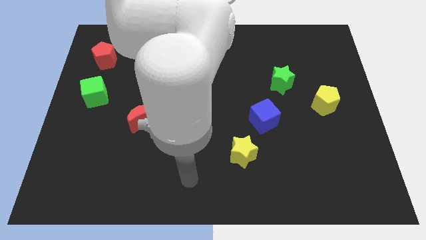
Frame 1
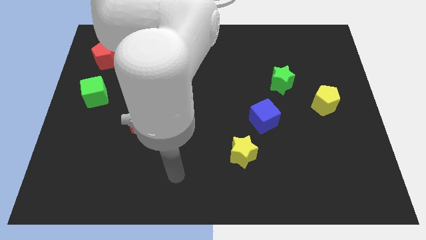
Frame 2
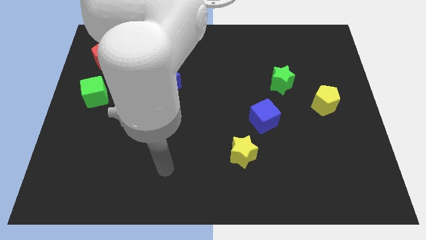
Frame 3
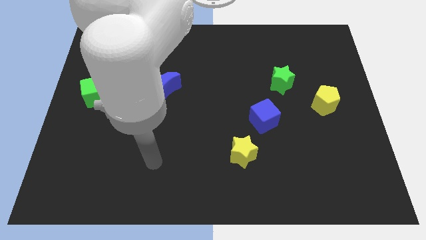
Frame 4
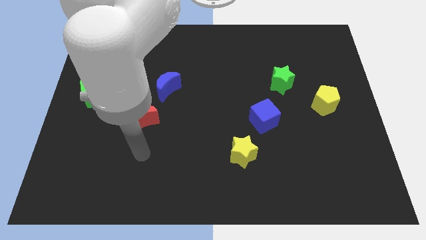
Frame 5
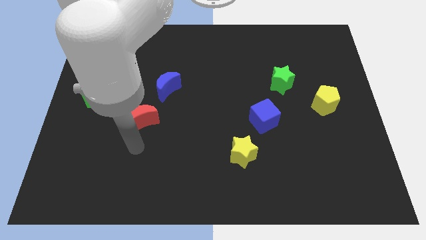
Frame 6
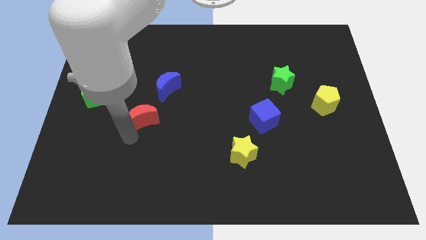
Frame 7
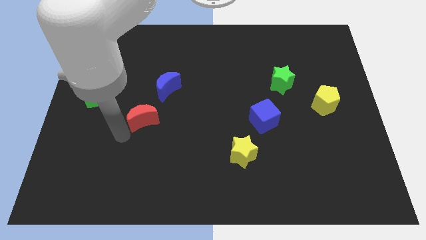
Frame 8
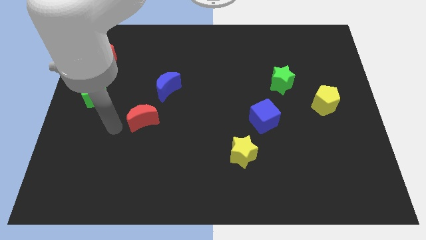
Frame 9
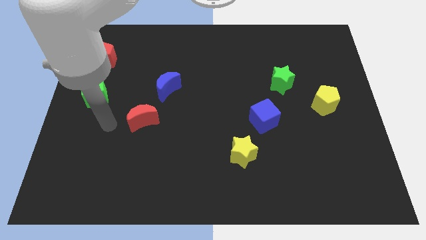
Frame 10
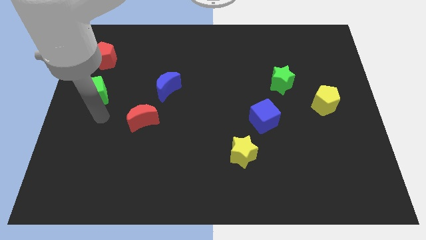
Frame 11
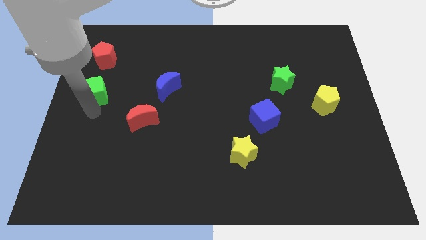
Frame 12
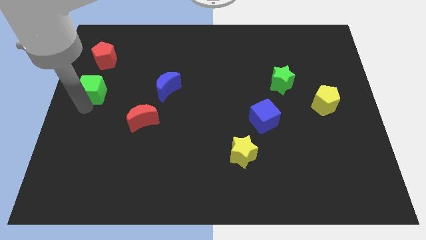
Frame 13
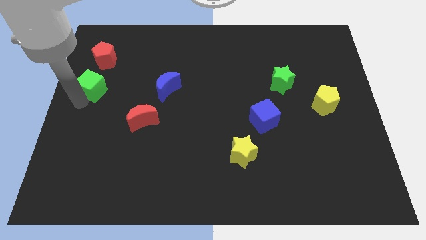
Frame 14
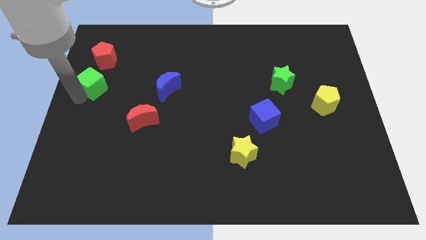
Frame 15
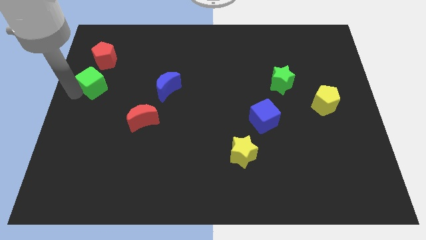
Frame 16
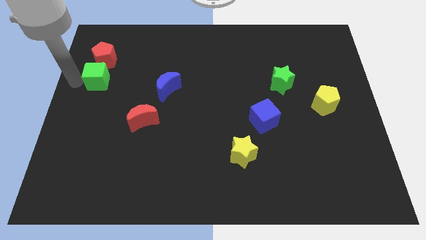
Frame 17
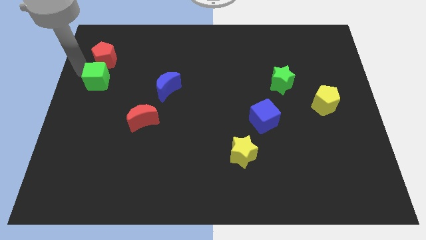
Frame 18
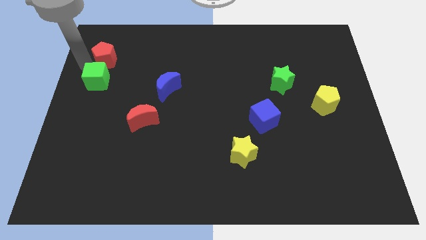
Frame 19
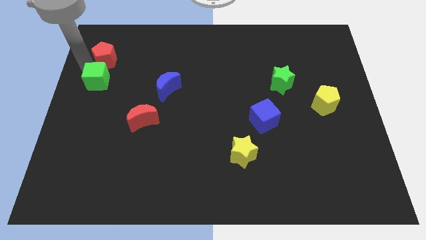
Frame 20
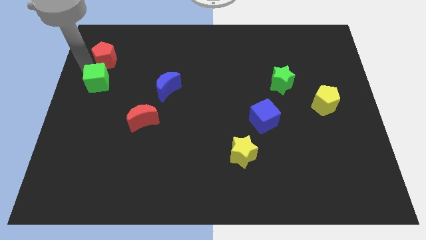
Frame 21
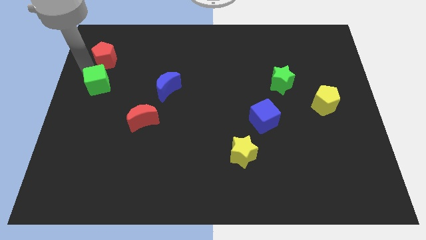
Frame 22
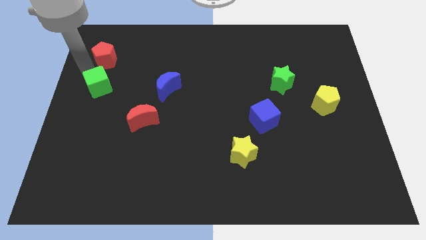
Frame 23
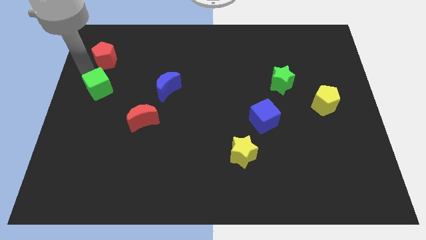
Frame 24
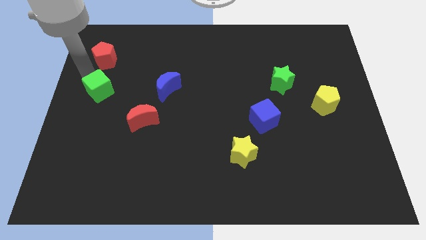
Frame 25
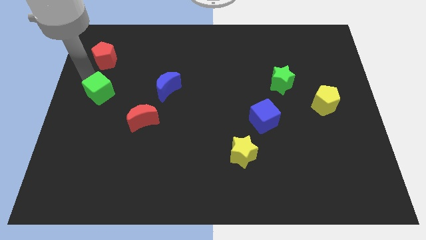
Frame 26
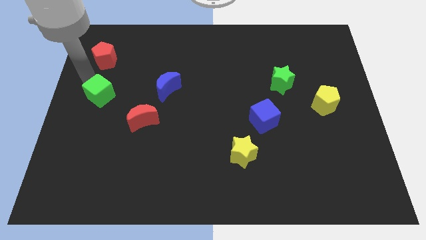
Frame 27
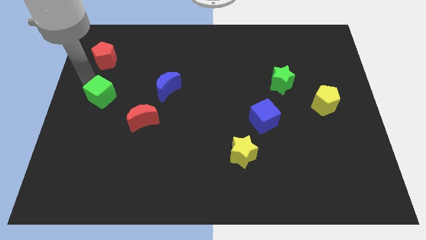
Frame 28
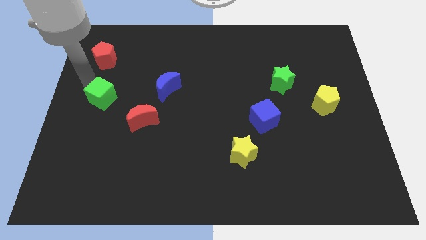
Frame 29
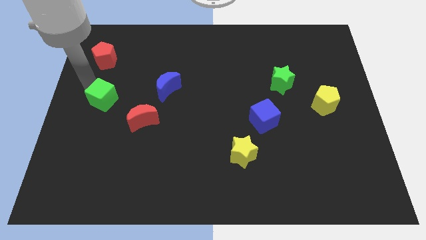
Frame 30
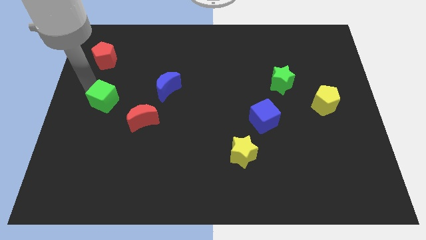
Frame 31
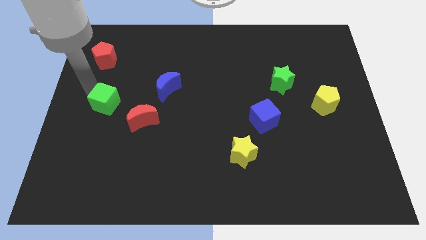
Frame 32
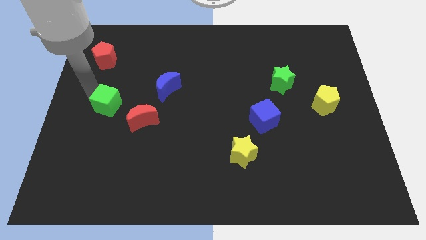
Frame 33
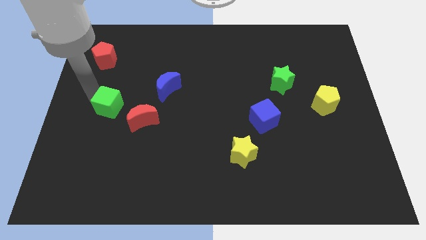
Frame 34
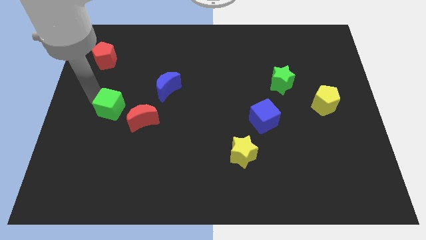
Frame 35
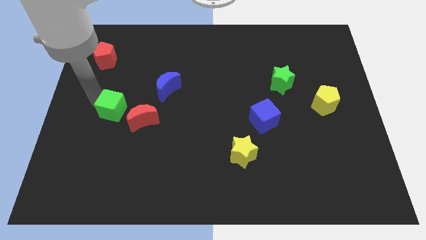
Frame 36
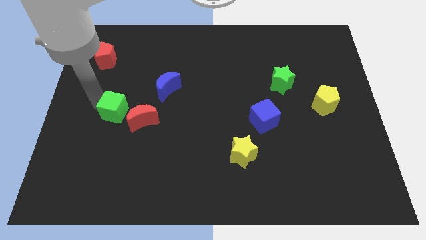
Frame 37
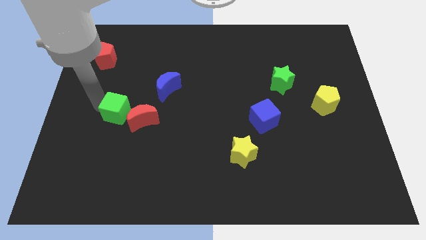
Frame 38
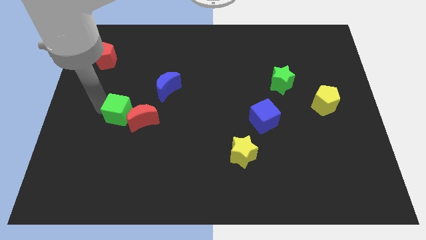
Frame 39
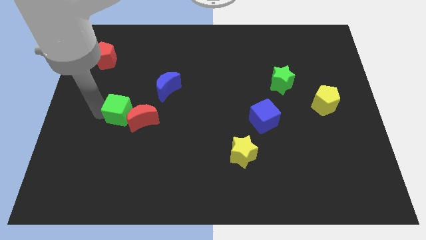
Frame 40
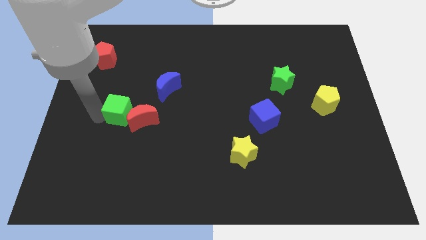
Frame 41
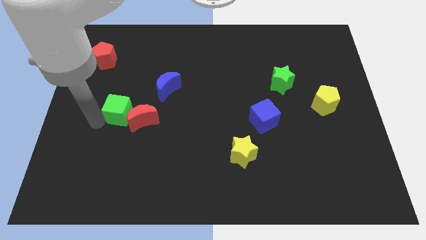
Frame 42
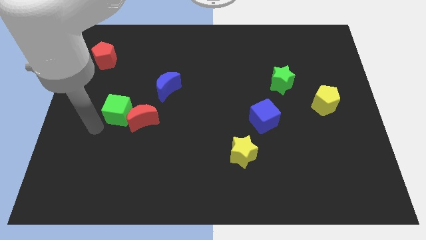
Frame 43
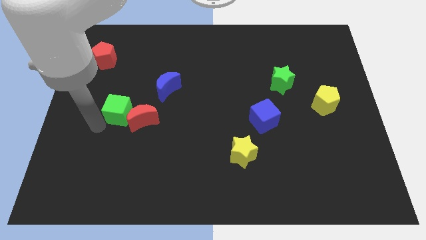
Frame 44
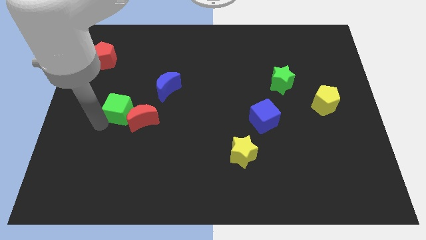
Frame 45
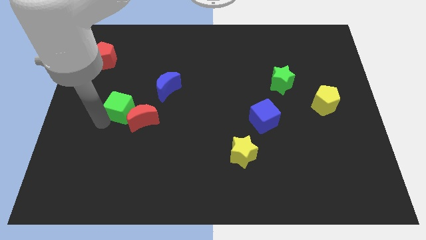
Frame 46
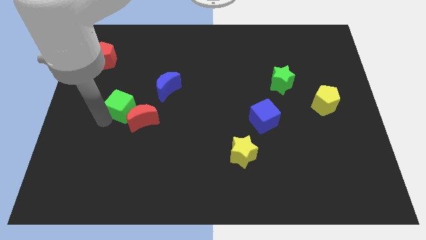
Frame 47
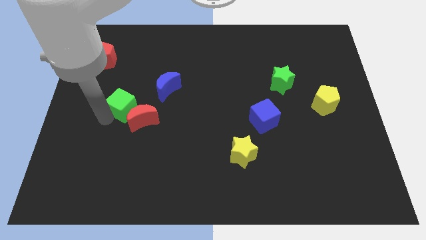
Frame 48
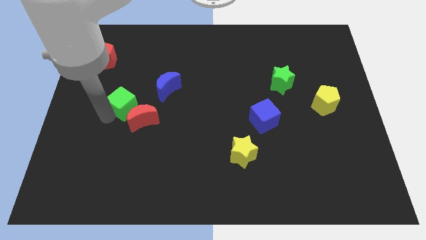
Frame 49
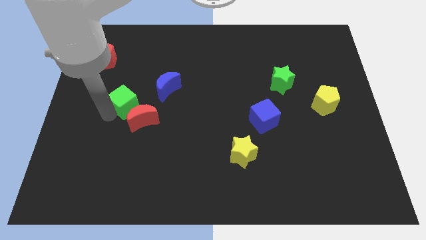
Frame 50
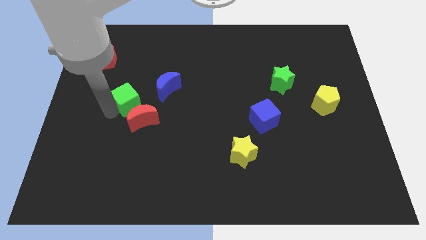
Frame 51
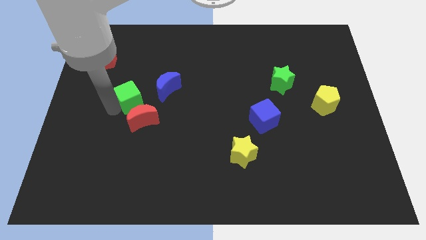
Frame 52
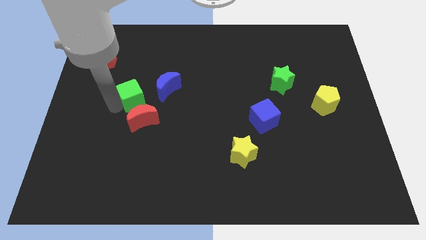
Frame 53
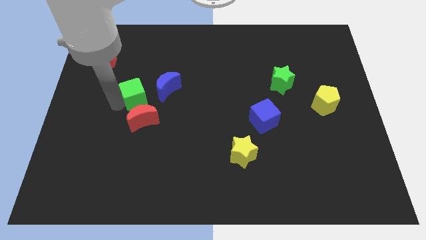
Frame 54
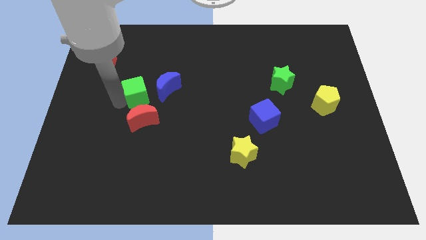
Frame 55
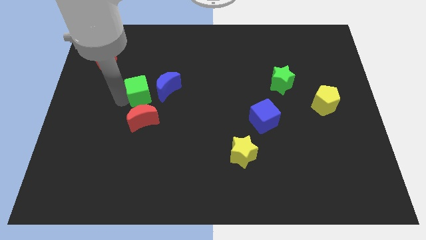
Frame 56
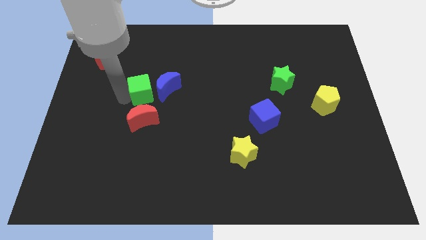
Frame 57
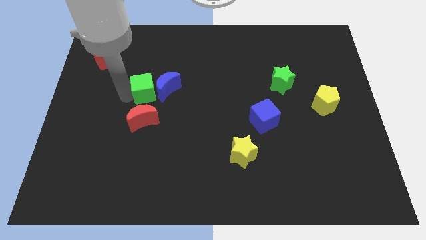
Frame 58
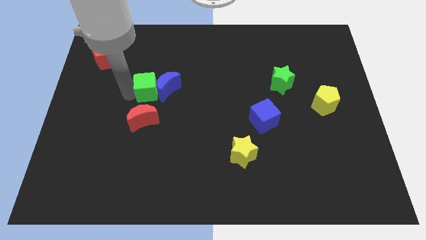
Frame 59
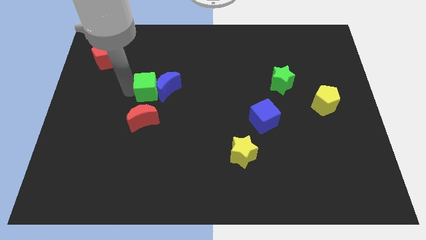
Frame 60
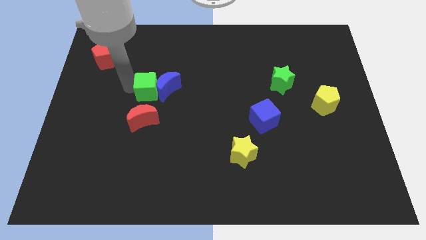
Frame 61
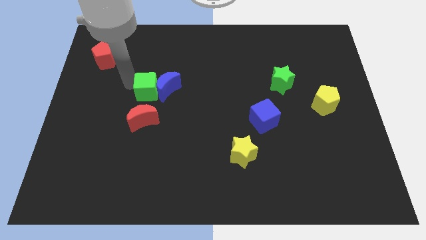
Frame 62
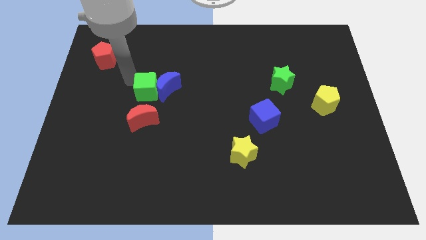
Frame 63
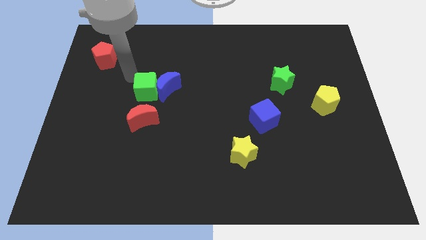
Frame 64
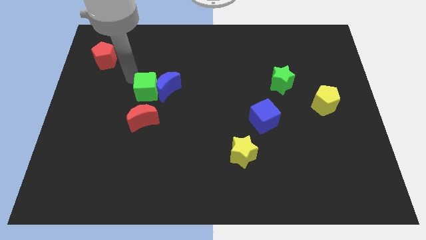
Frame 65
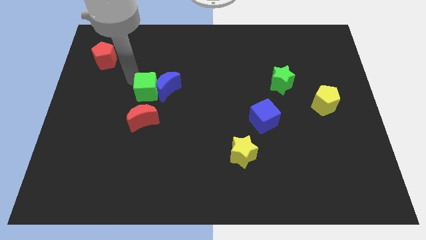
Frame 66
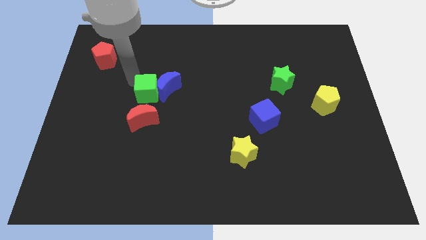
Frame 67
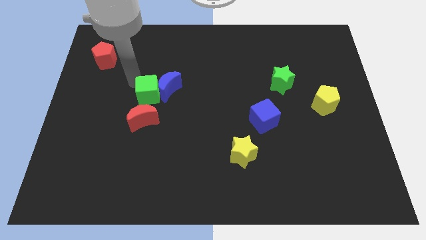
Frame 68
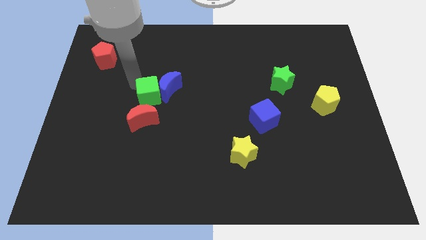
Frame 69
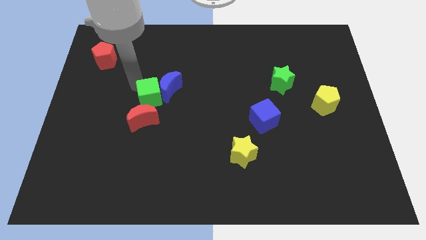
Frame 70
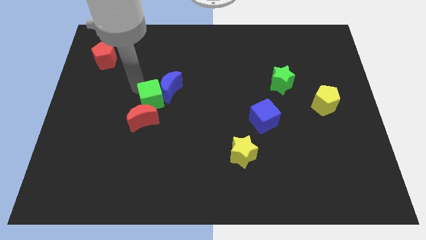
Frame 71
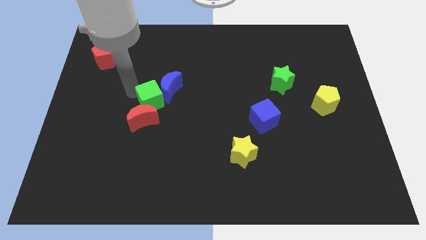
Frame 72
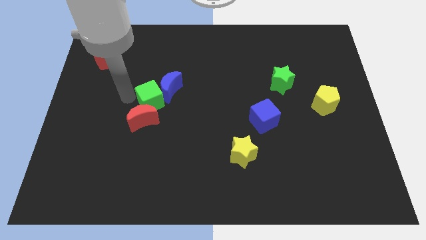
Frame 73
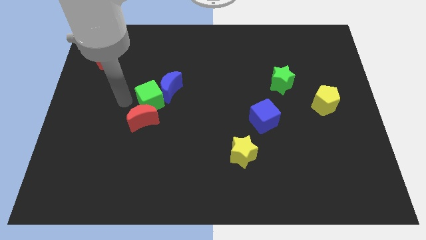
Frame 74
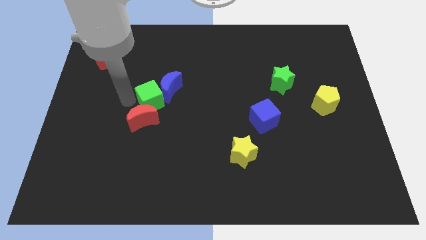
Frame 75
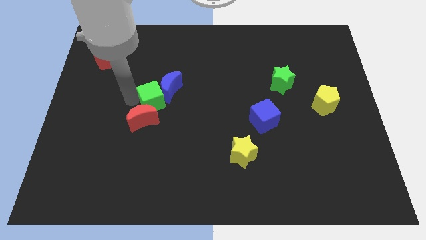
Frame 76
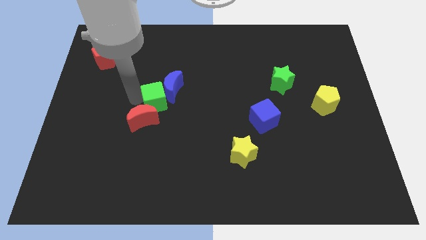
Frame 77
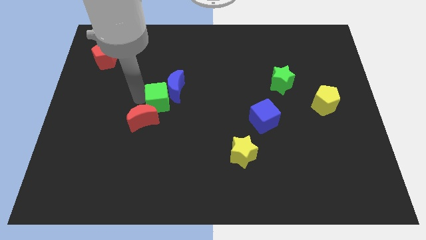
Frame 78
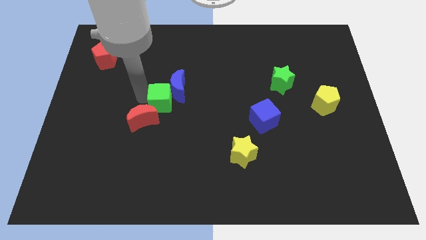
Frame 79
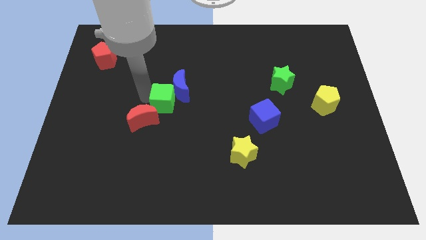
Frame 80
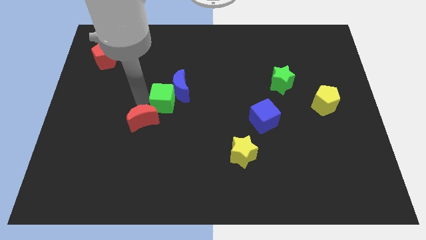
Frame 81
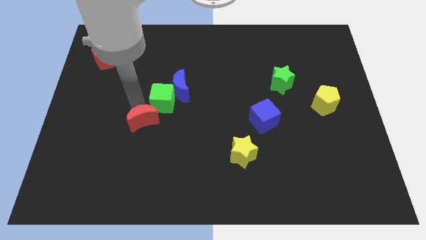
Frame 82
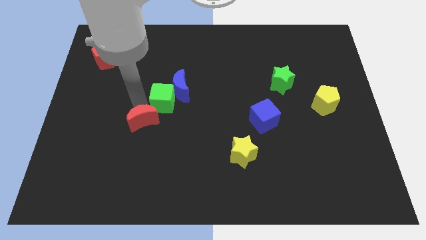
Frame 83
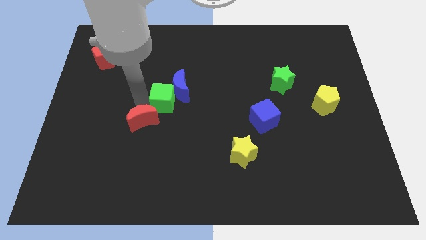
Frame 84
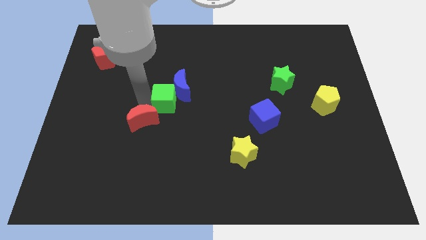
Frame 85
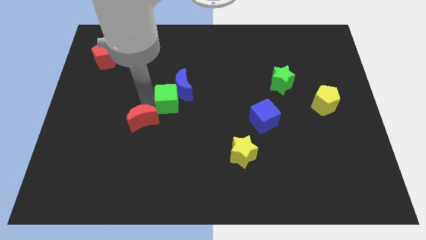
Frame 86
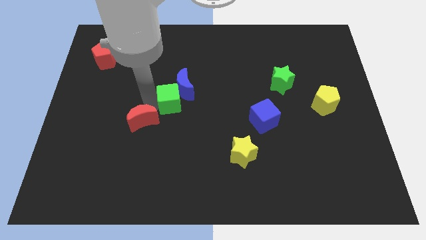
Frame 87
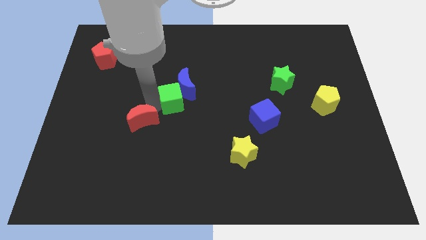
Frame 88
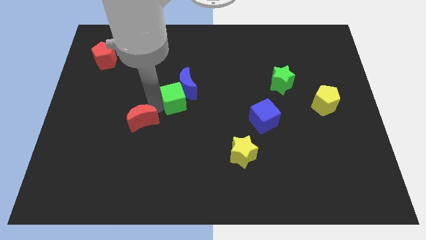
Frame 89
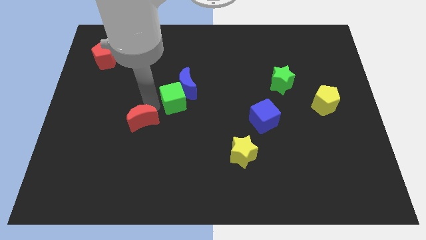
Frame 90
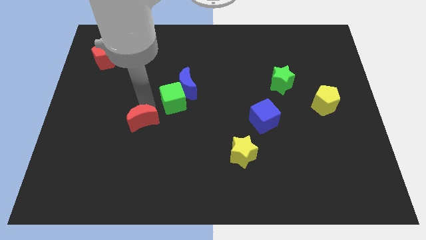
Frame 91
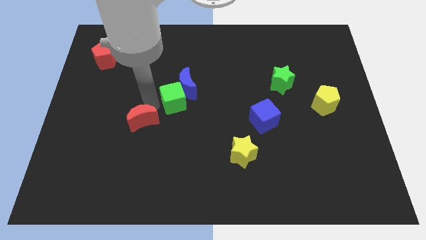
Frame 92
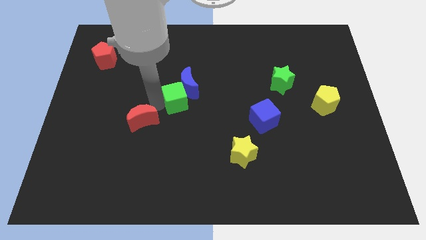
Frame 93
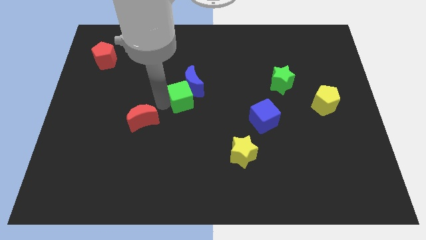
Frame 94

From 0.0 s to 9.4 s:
move the green cube to the right
